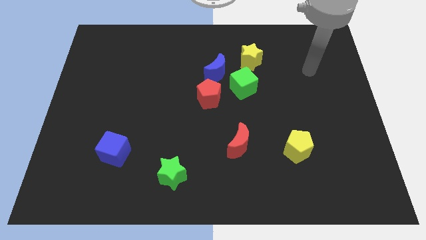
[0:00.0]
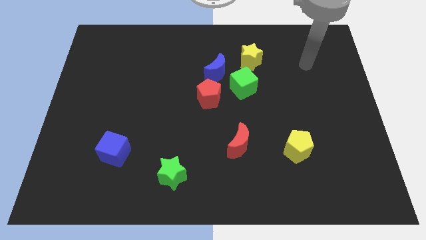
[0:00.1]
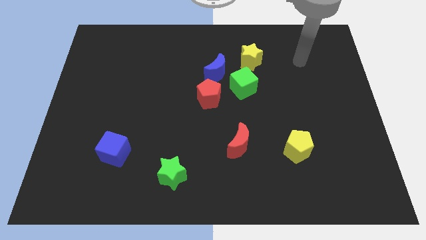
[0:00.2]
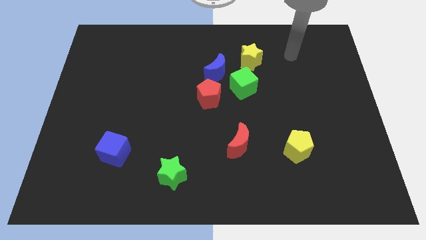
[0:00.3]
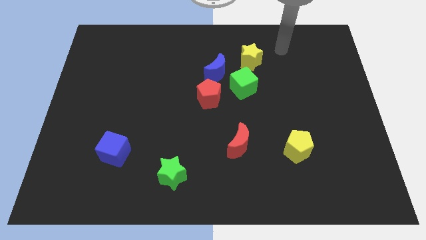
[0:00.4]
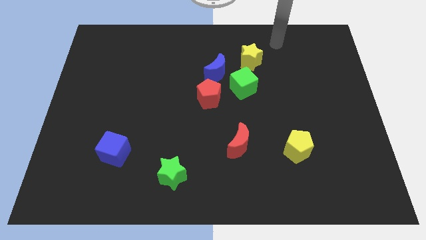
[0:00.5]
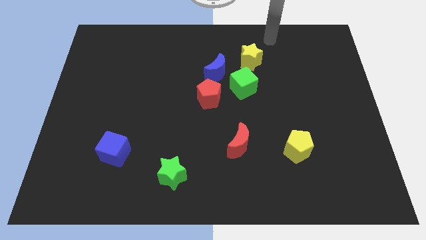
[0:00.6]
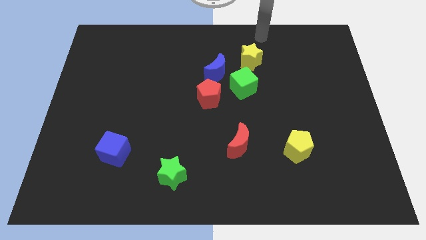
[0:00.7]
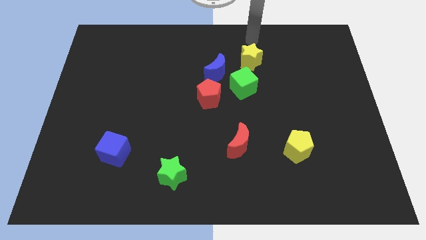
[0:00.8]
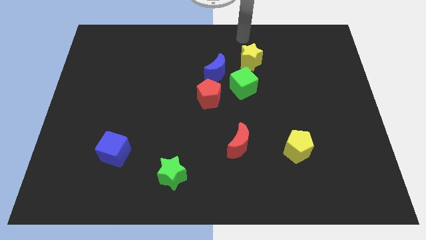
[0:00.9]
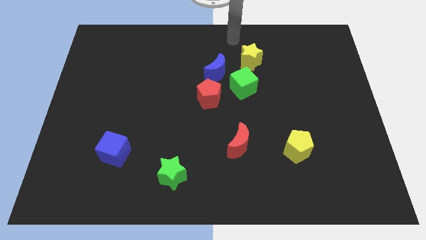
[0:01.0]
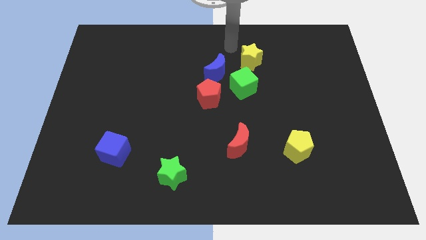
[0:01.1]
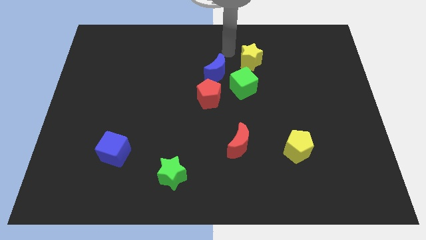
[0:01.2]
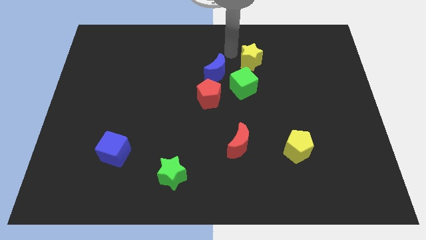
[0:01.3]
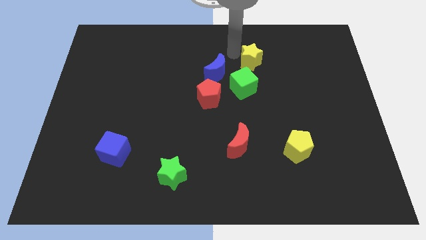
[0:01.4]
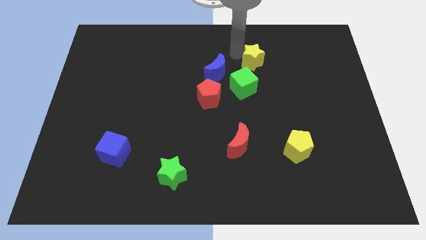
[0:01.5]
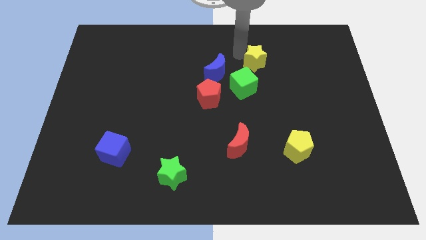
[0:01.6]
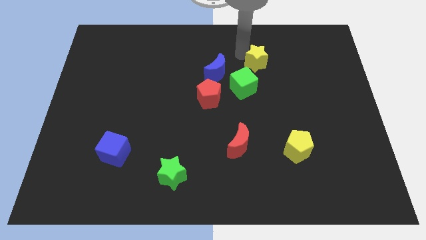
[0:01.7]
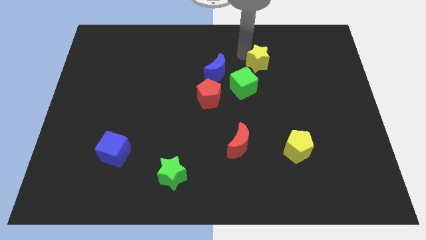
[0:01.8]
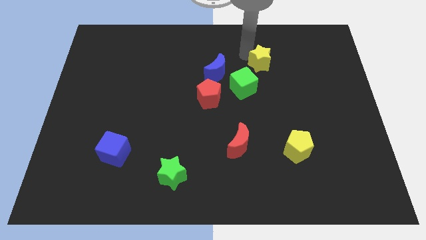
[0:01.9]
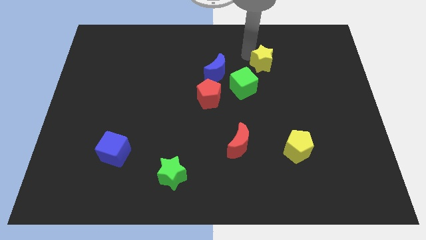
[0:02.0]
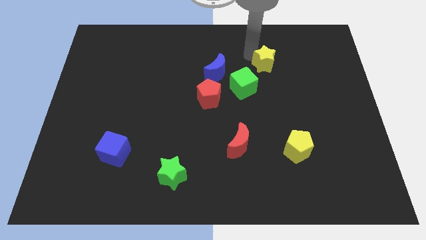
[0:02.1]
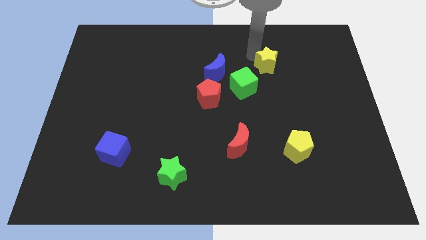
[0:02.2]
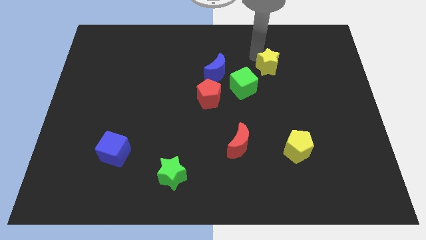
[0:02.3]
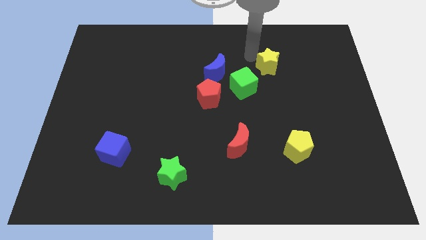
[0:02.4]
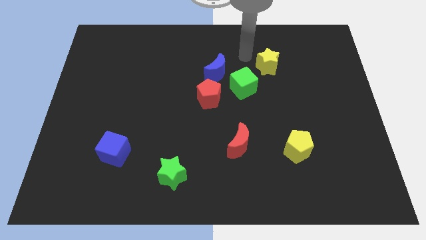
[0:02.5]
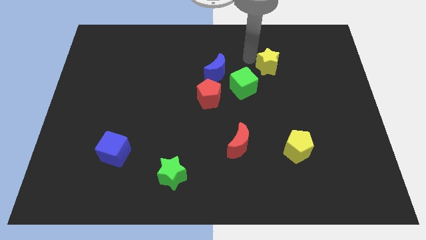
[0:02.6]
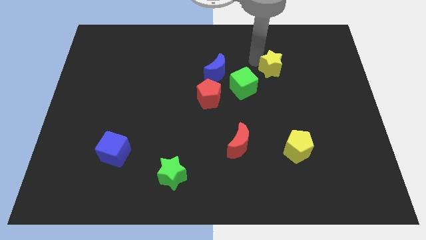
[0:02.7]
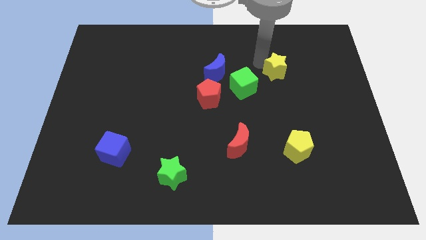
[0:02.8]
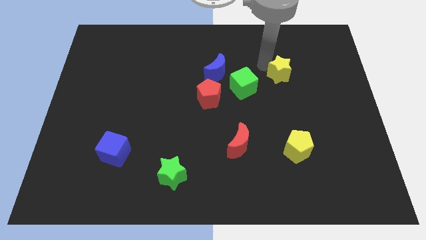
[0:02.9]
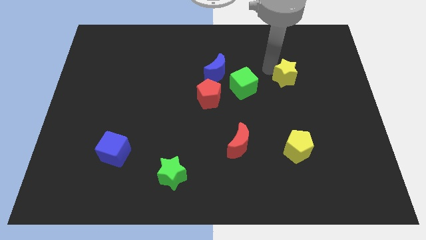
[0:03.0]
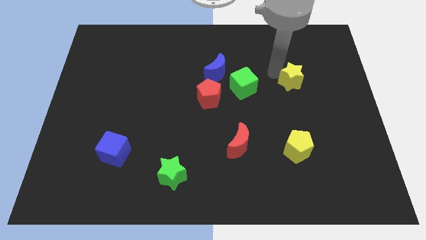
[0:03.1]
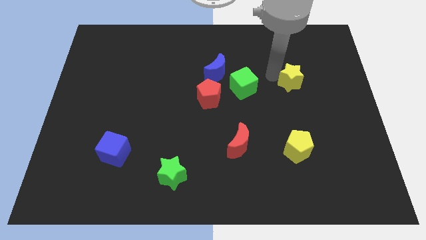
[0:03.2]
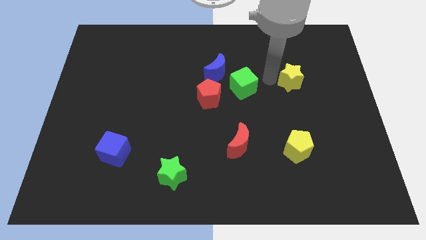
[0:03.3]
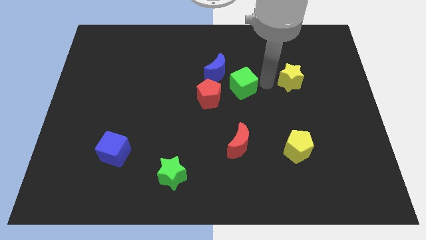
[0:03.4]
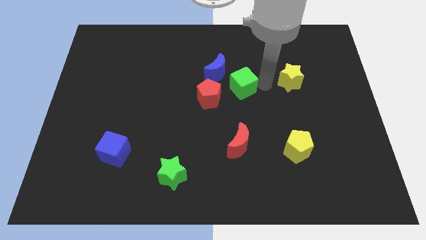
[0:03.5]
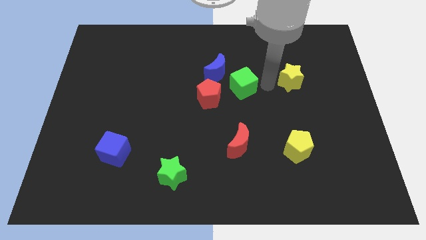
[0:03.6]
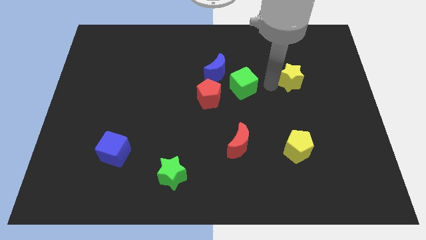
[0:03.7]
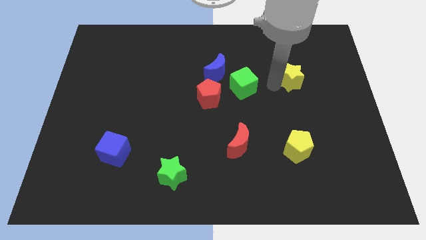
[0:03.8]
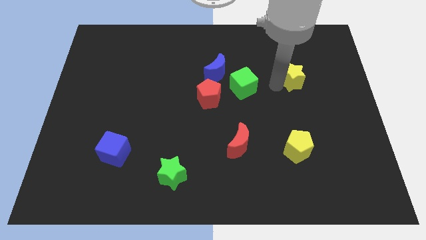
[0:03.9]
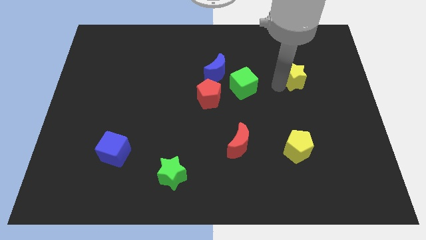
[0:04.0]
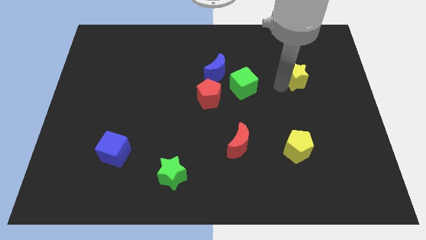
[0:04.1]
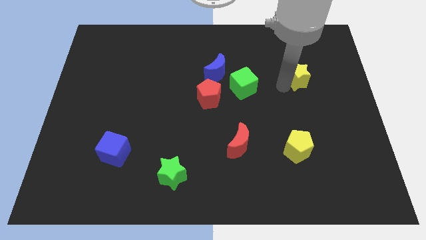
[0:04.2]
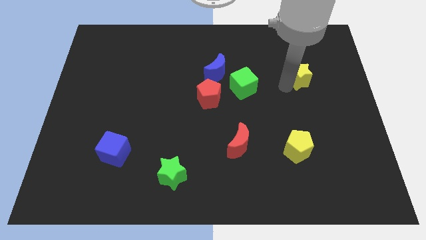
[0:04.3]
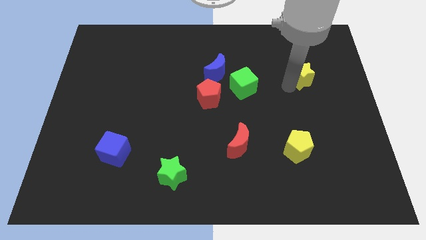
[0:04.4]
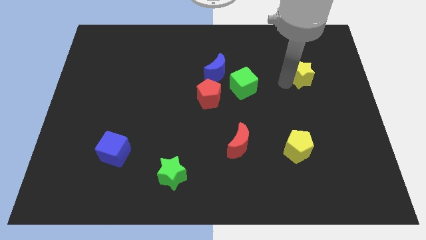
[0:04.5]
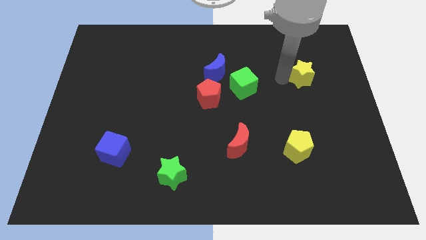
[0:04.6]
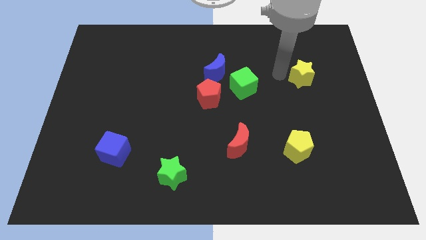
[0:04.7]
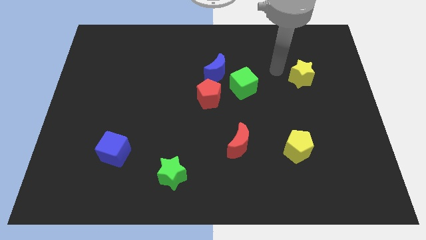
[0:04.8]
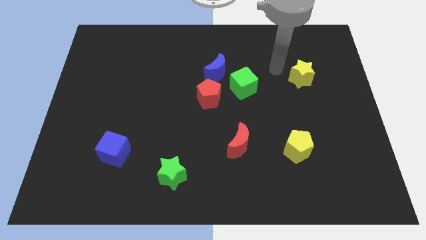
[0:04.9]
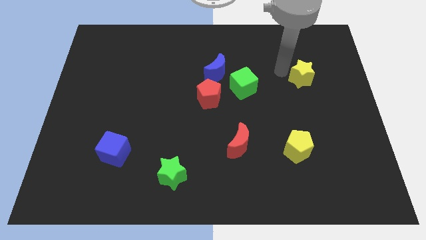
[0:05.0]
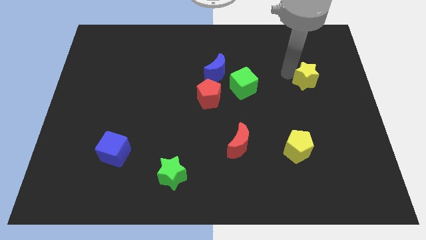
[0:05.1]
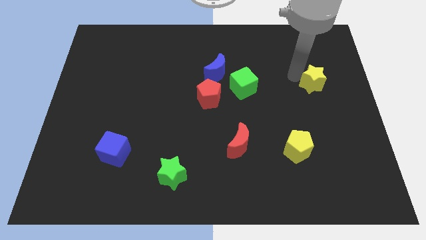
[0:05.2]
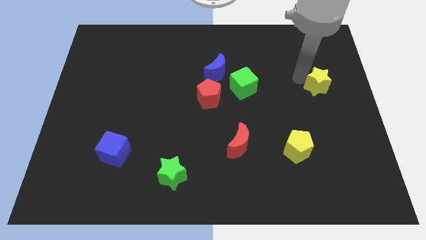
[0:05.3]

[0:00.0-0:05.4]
move the yellow star to the right side of the board
